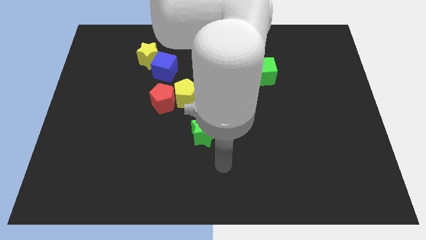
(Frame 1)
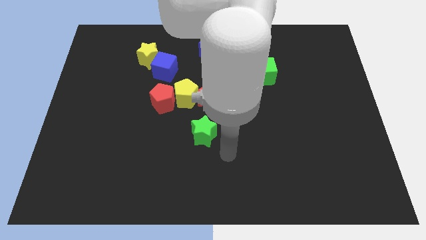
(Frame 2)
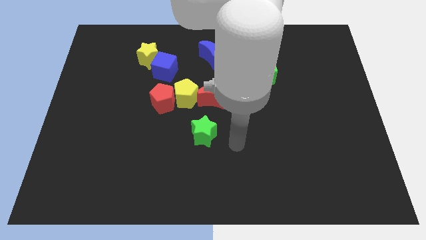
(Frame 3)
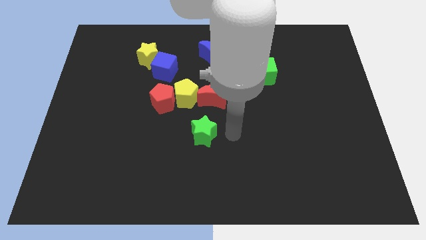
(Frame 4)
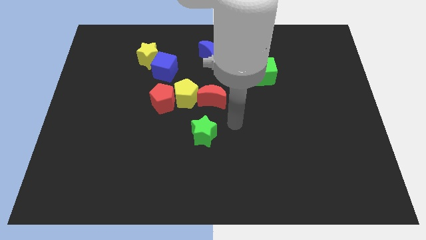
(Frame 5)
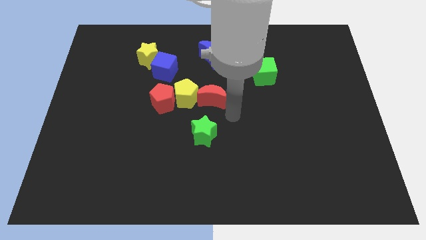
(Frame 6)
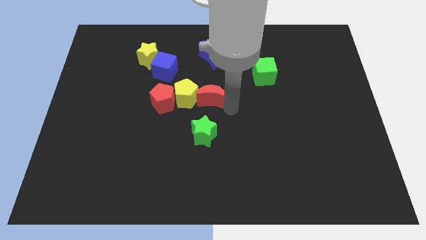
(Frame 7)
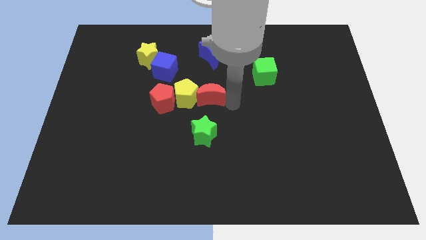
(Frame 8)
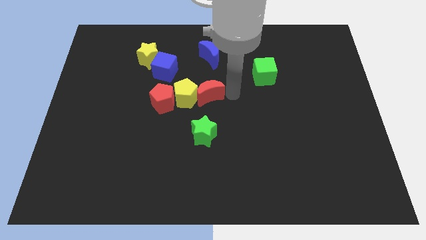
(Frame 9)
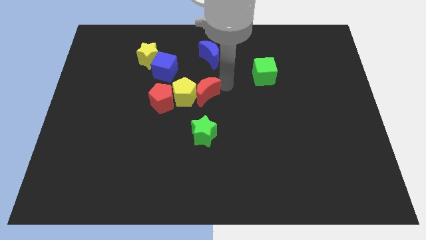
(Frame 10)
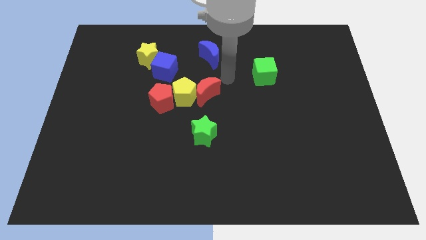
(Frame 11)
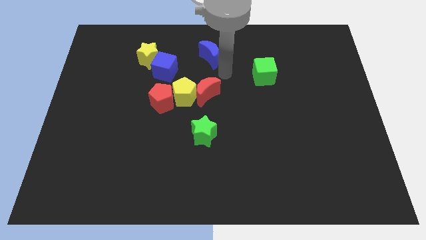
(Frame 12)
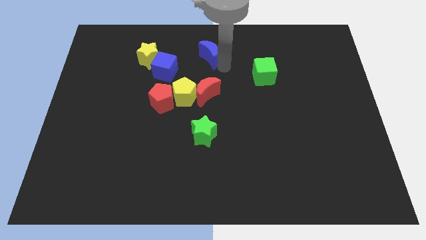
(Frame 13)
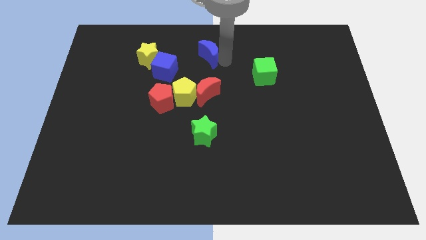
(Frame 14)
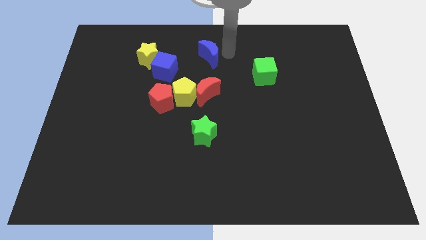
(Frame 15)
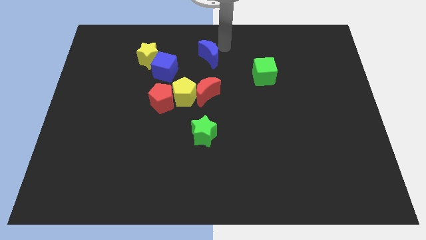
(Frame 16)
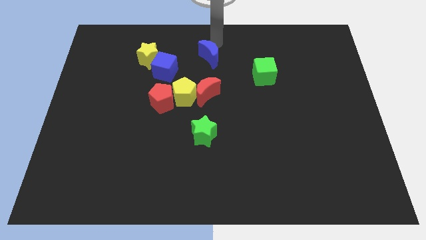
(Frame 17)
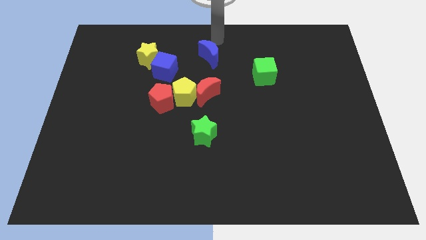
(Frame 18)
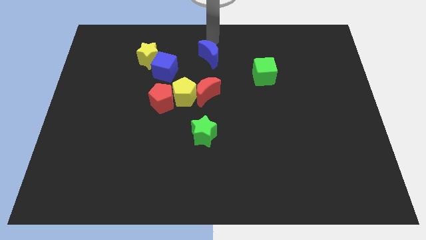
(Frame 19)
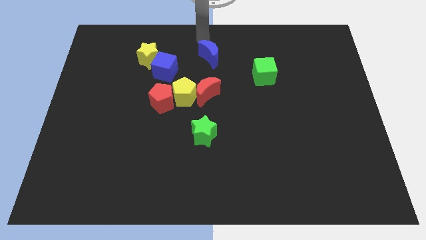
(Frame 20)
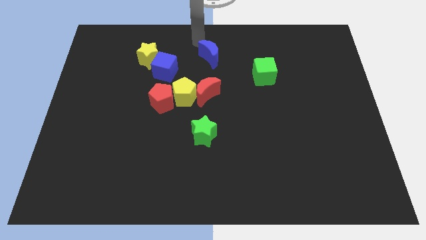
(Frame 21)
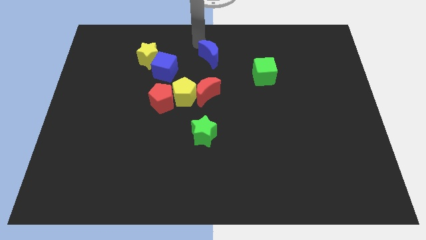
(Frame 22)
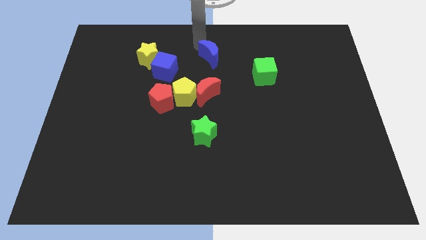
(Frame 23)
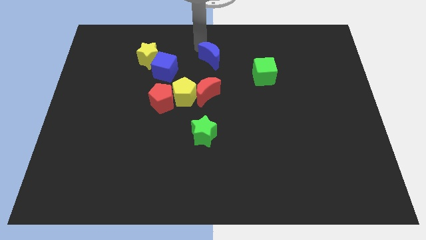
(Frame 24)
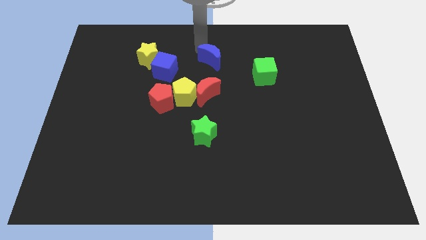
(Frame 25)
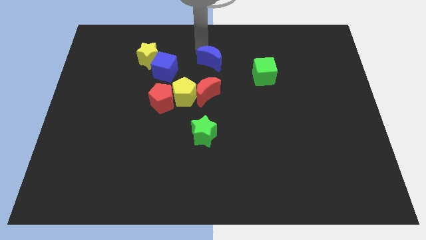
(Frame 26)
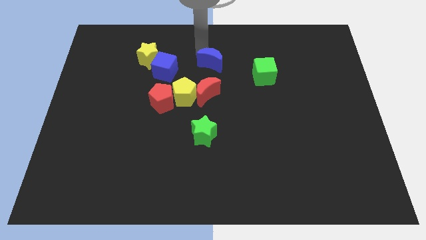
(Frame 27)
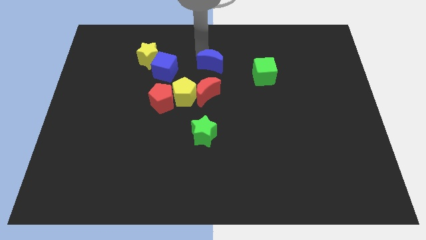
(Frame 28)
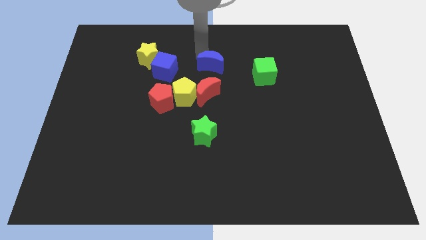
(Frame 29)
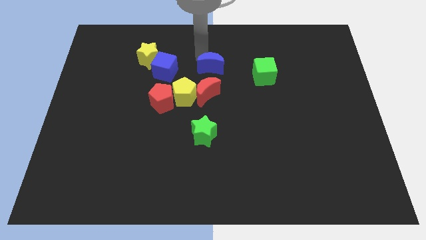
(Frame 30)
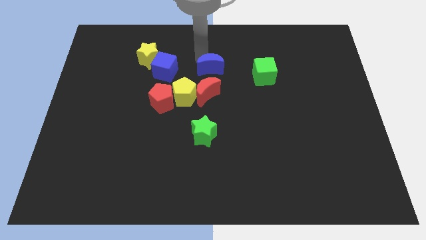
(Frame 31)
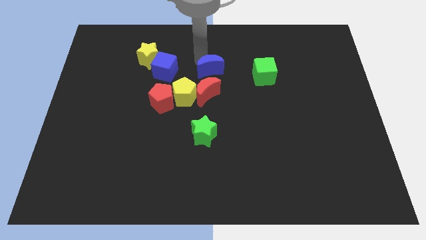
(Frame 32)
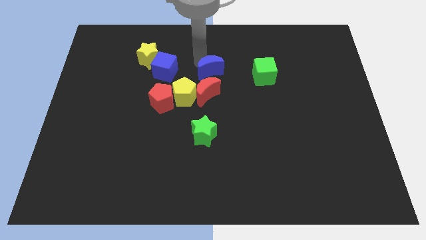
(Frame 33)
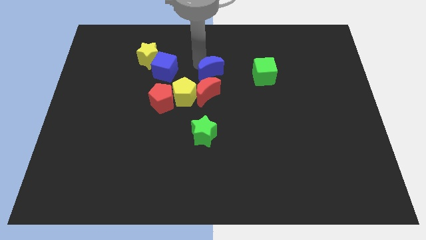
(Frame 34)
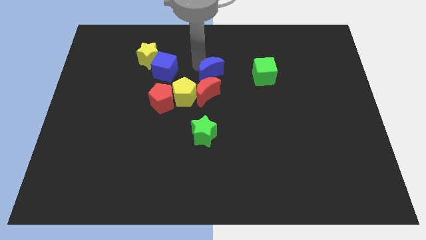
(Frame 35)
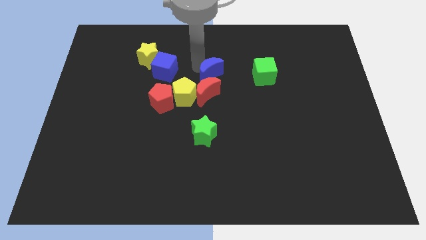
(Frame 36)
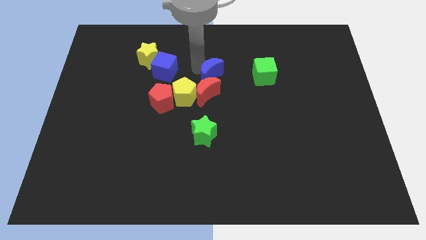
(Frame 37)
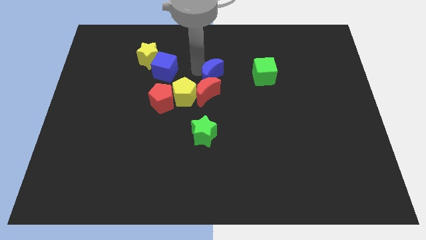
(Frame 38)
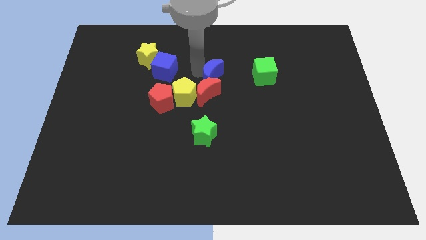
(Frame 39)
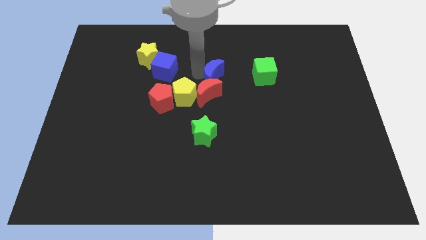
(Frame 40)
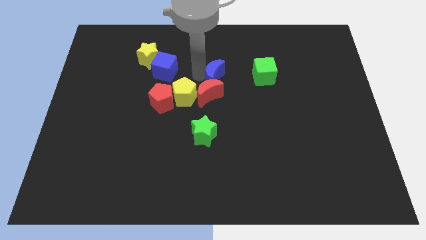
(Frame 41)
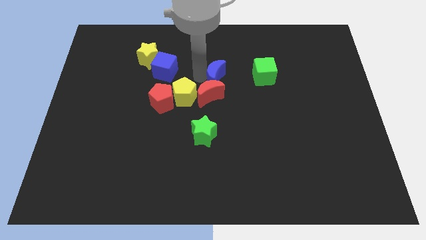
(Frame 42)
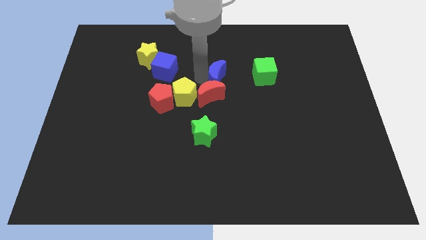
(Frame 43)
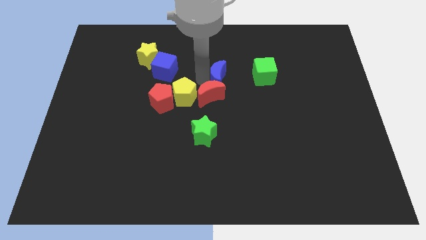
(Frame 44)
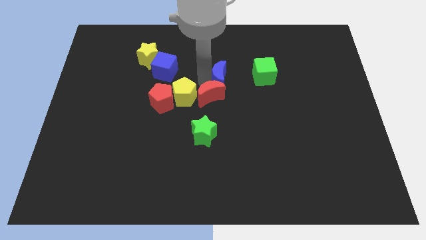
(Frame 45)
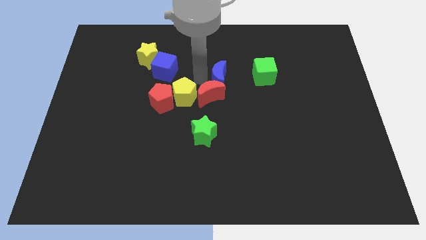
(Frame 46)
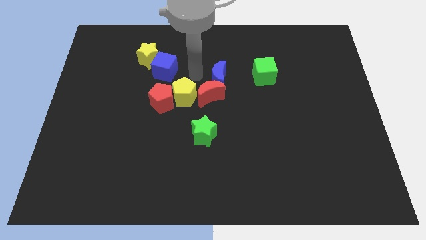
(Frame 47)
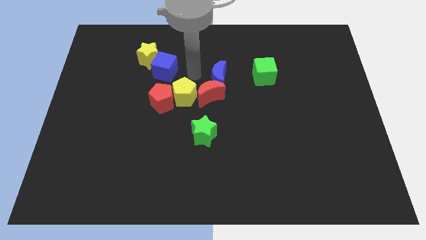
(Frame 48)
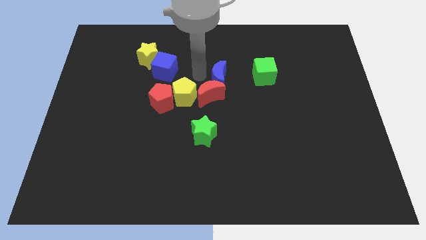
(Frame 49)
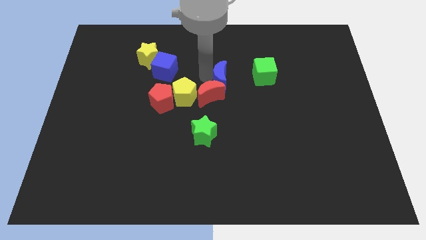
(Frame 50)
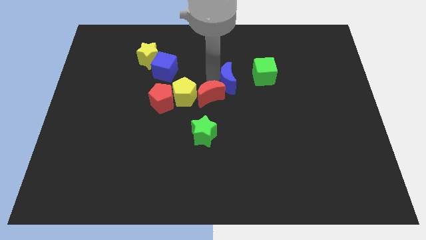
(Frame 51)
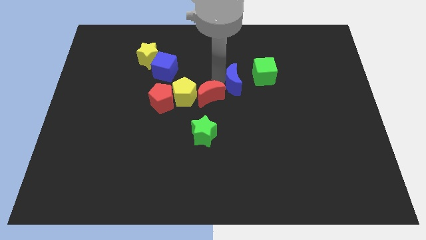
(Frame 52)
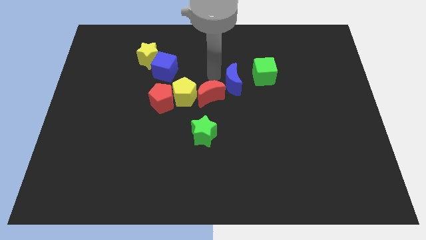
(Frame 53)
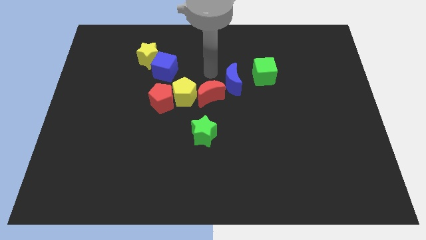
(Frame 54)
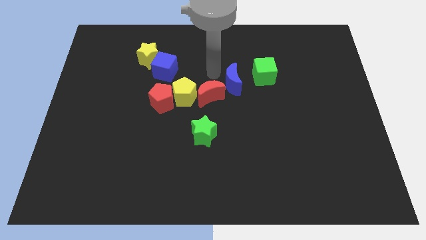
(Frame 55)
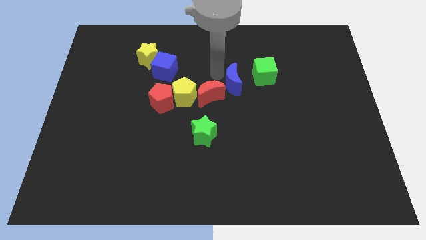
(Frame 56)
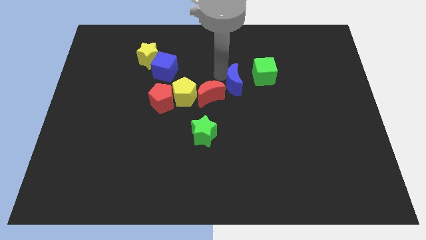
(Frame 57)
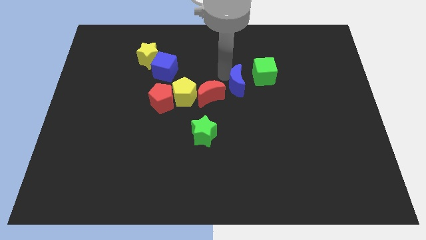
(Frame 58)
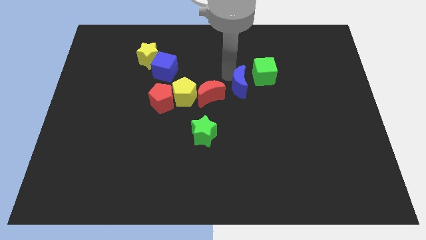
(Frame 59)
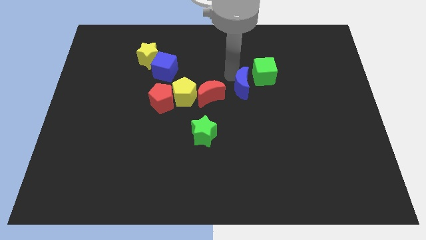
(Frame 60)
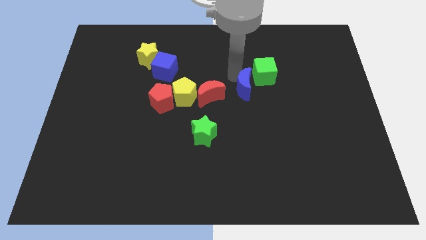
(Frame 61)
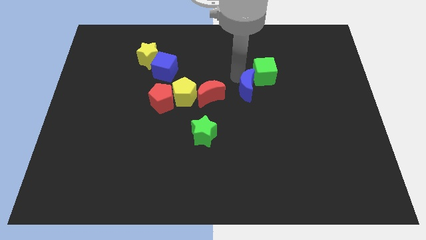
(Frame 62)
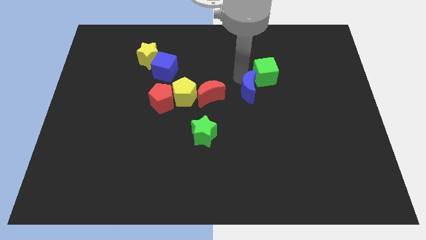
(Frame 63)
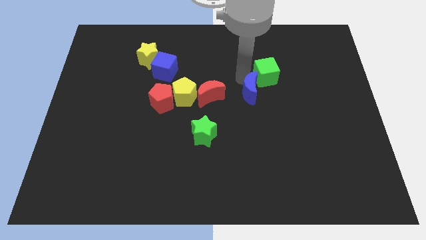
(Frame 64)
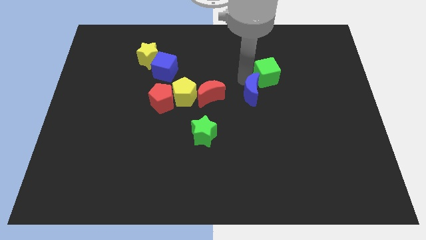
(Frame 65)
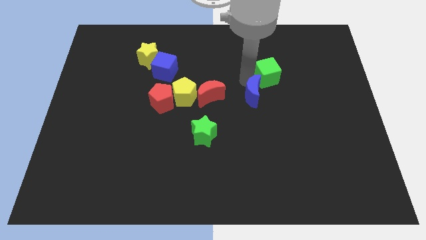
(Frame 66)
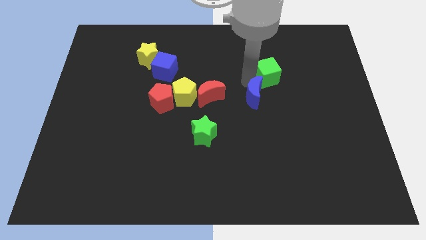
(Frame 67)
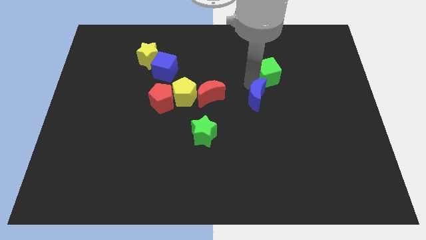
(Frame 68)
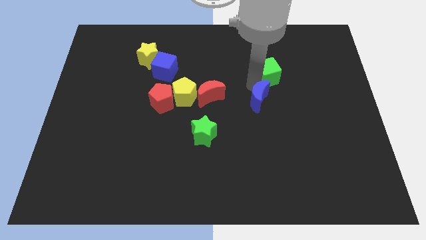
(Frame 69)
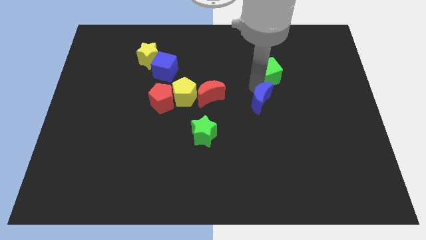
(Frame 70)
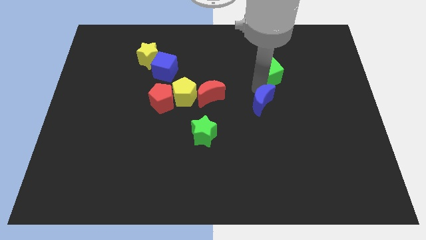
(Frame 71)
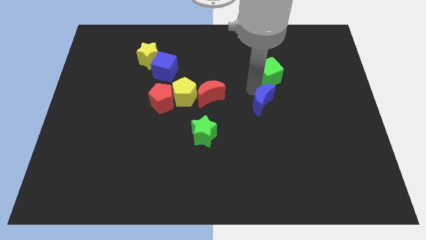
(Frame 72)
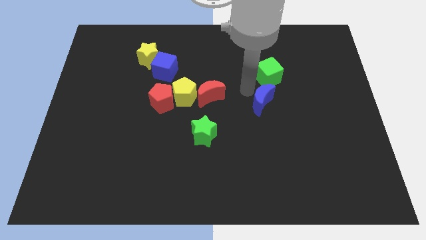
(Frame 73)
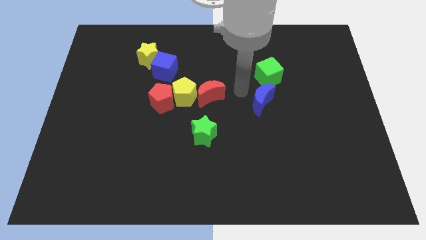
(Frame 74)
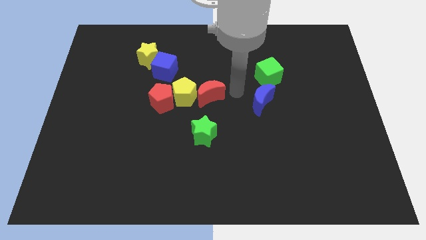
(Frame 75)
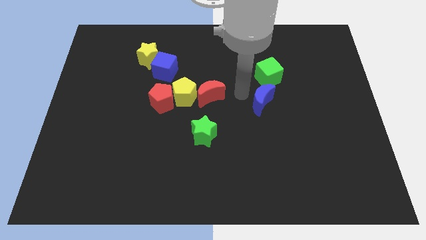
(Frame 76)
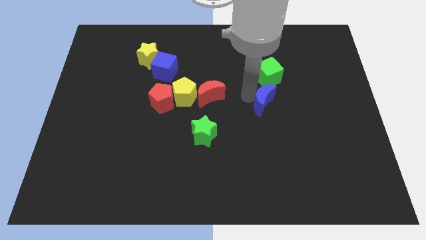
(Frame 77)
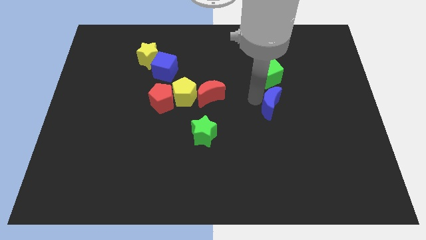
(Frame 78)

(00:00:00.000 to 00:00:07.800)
move the blue moon down and then right

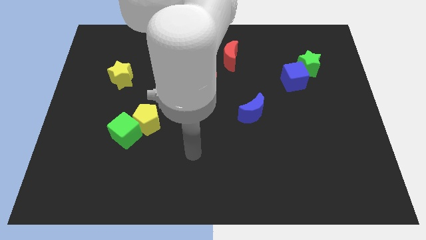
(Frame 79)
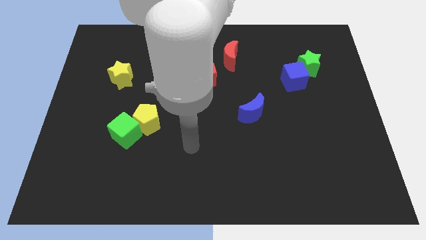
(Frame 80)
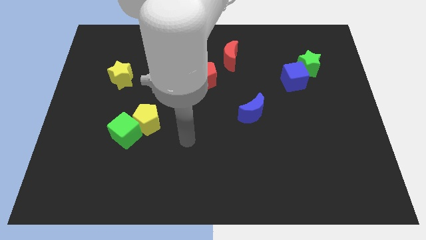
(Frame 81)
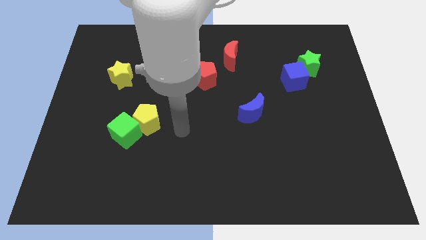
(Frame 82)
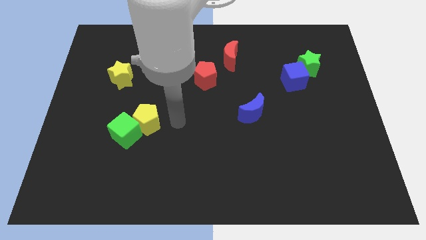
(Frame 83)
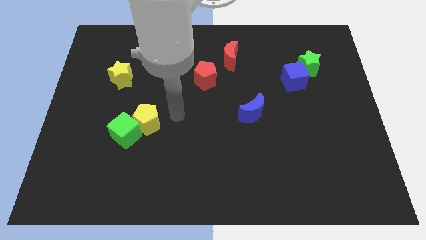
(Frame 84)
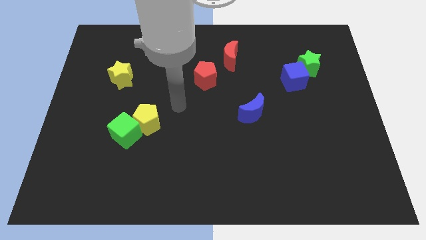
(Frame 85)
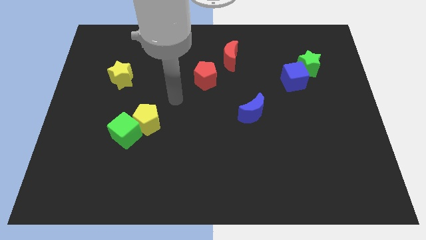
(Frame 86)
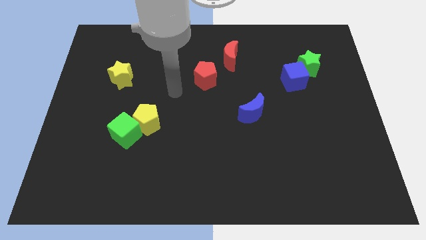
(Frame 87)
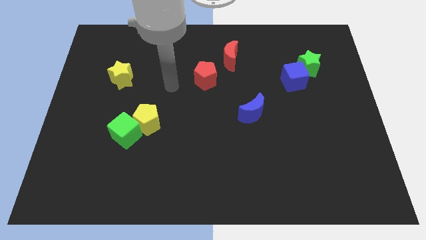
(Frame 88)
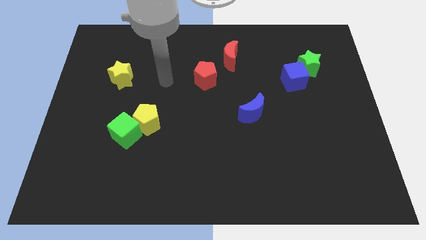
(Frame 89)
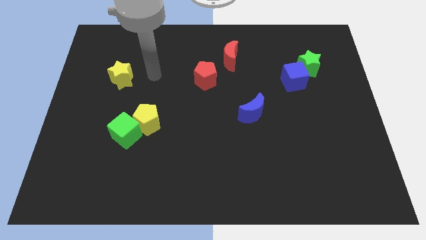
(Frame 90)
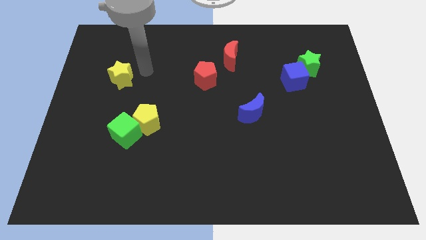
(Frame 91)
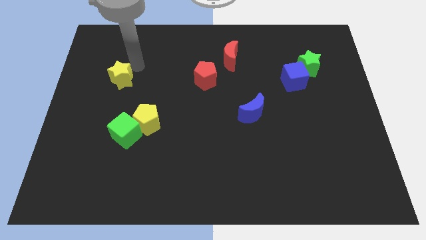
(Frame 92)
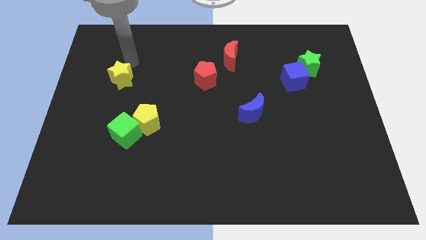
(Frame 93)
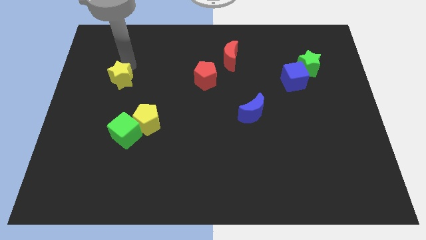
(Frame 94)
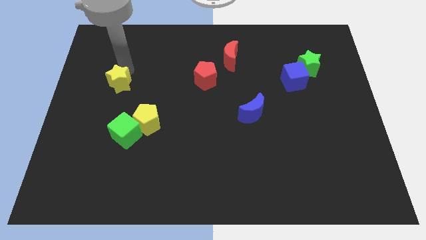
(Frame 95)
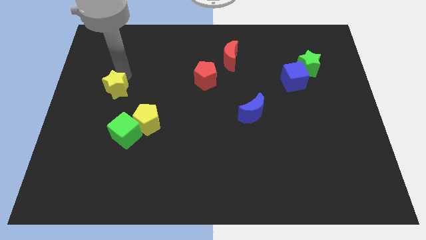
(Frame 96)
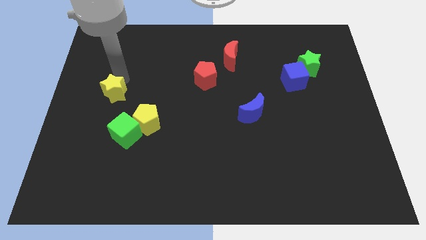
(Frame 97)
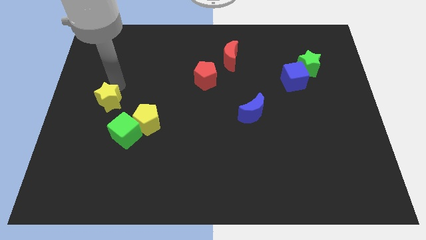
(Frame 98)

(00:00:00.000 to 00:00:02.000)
slide the yellow star down slightly
